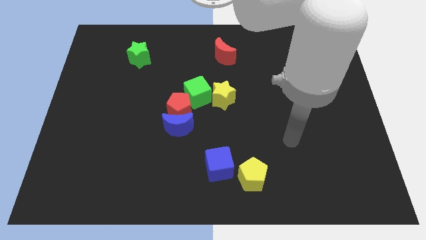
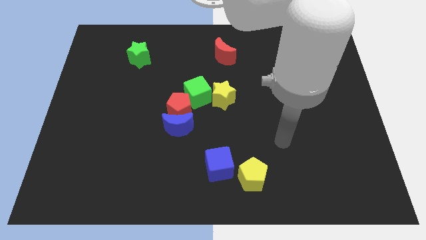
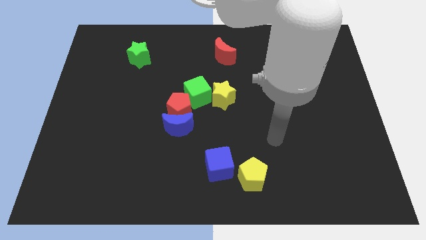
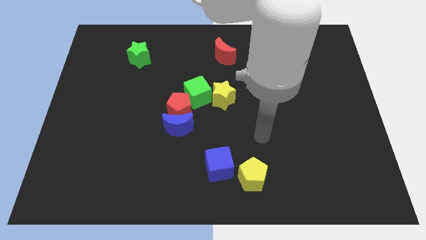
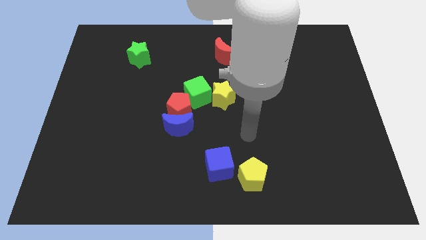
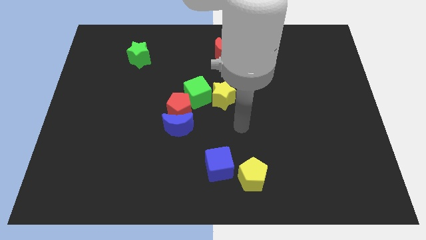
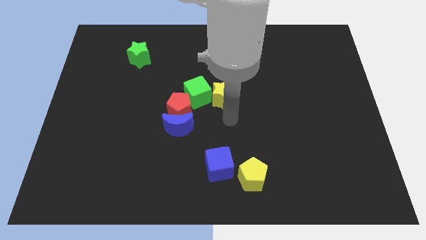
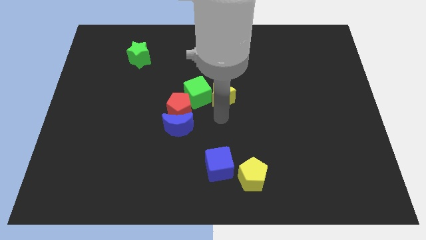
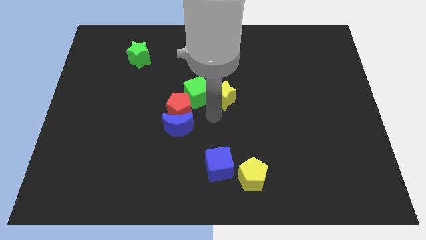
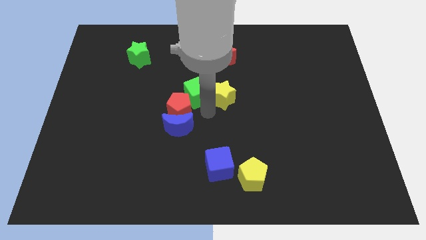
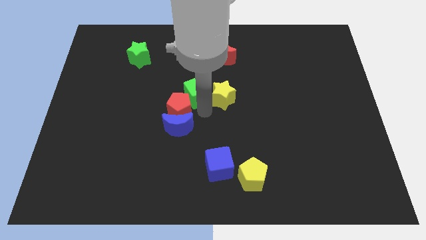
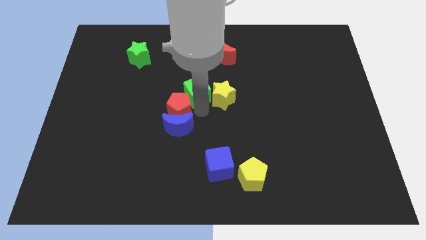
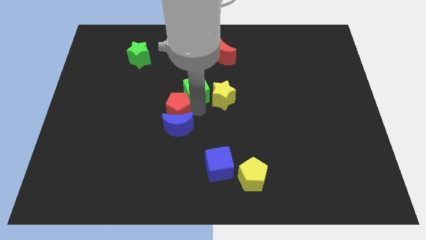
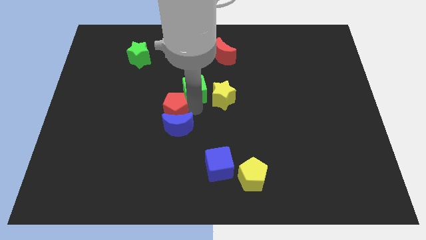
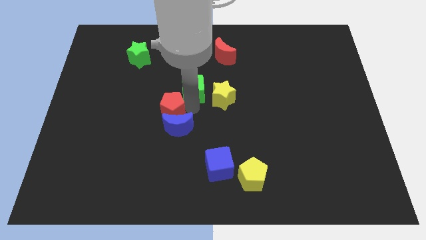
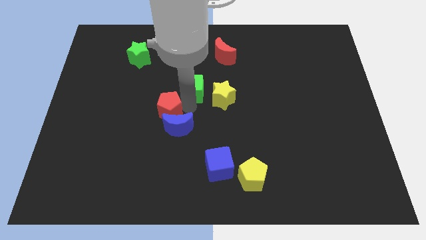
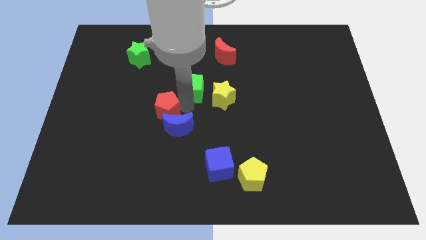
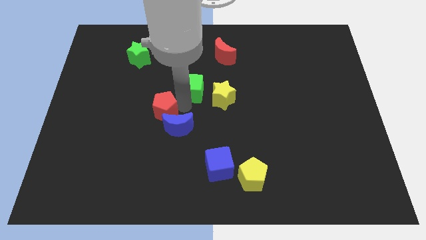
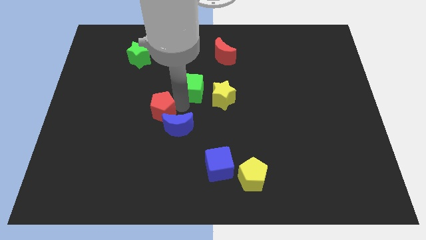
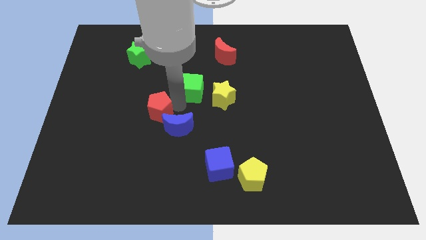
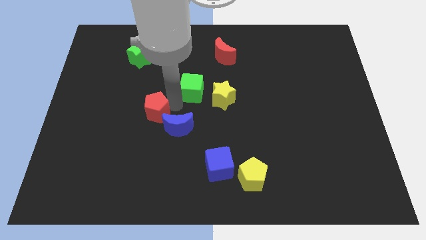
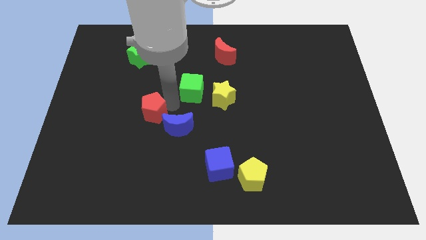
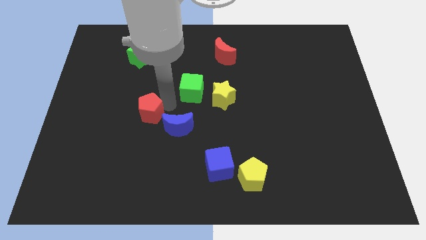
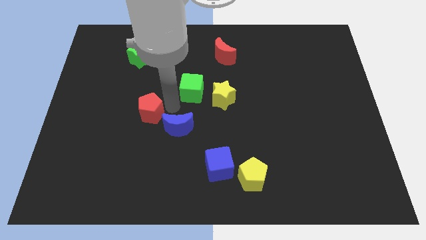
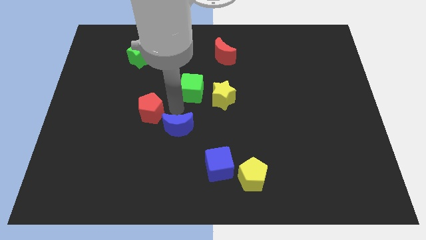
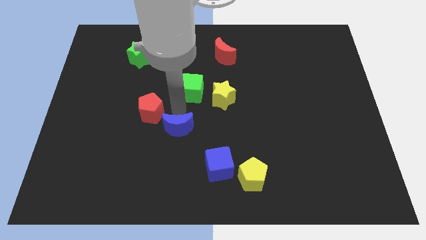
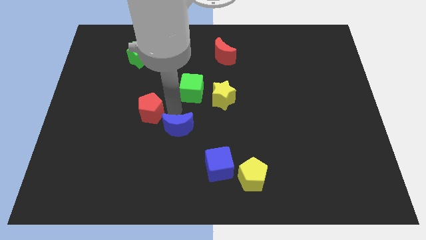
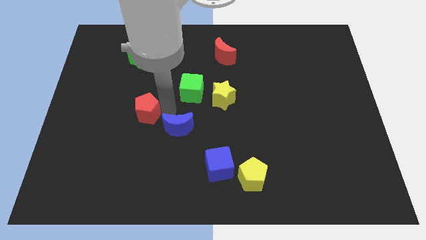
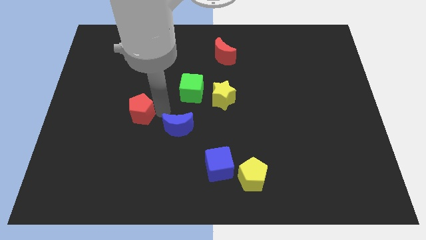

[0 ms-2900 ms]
pull the red pentagon apart from the blue moon and green cube

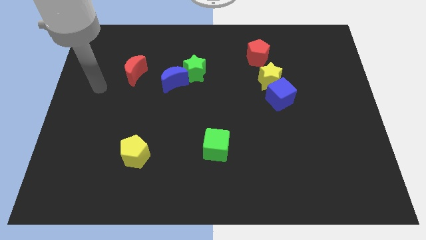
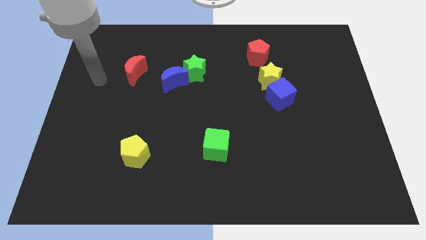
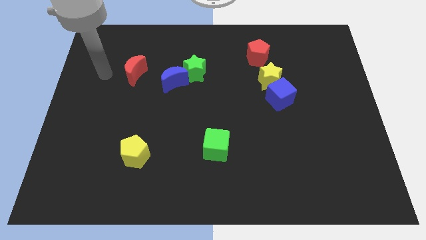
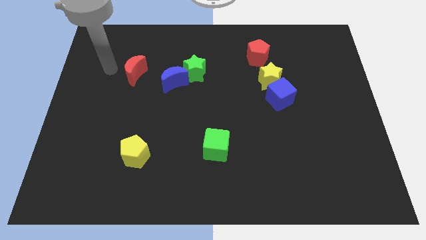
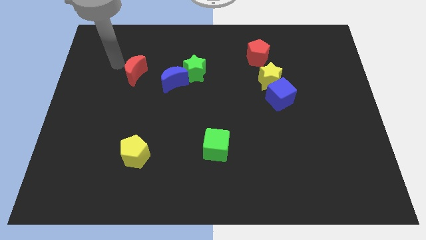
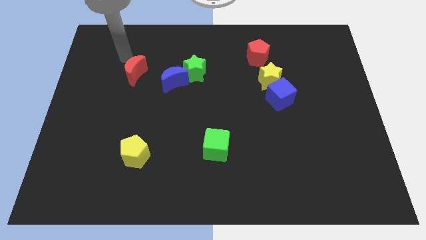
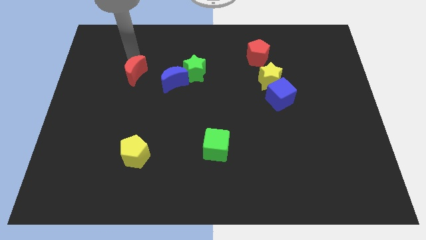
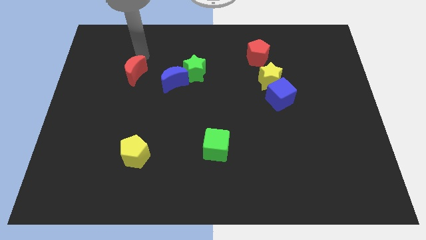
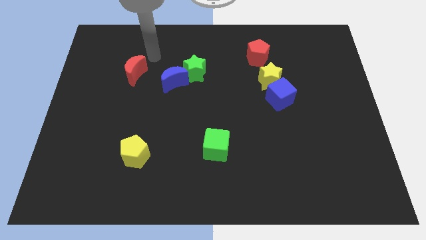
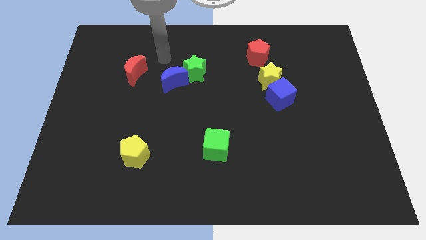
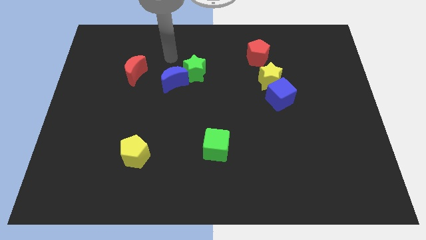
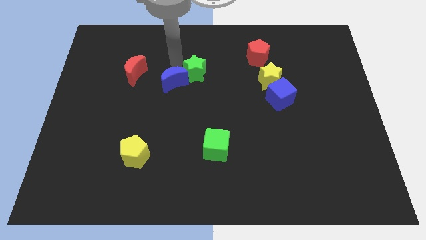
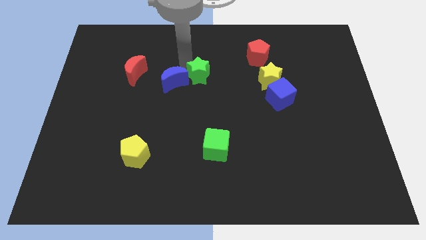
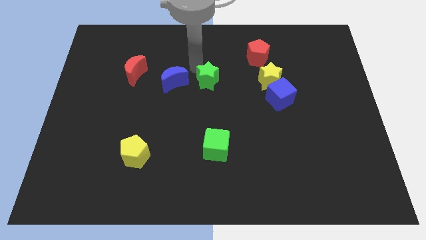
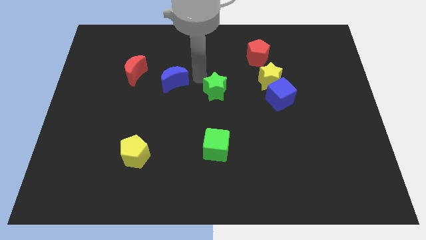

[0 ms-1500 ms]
separate the blue moon from the green star

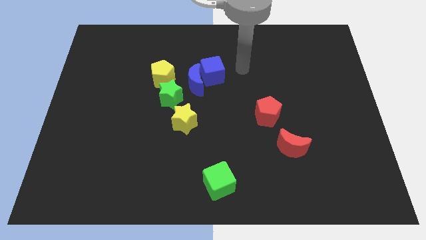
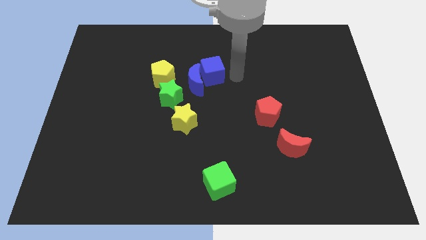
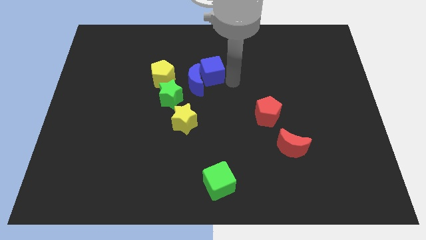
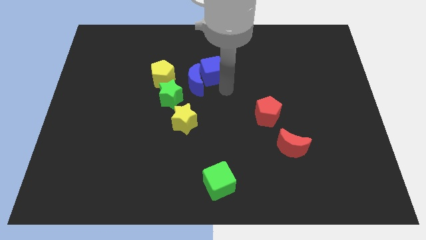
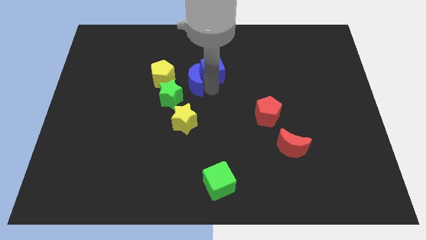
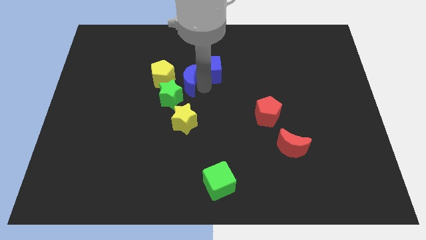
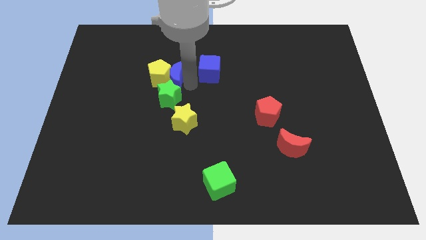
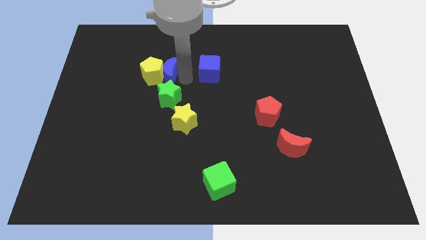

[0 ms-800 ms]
separate the blue cube from the blue moon

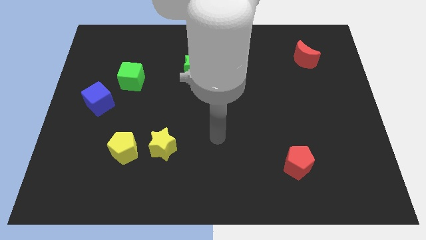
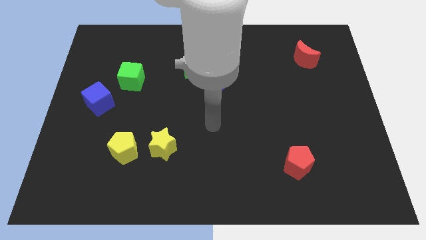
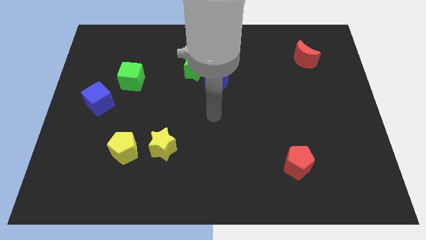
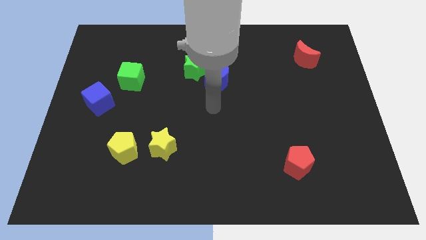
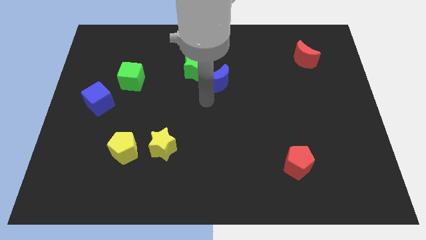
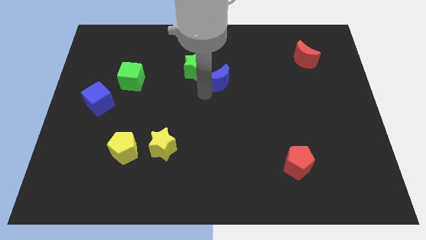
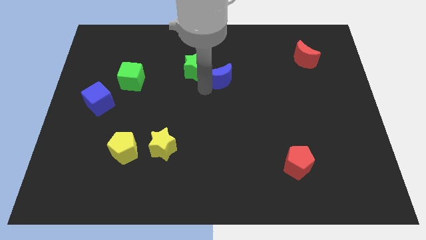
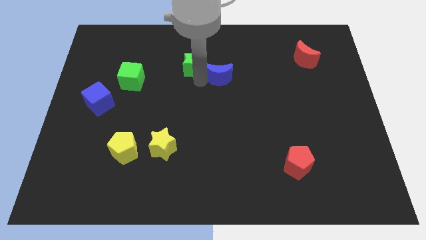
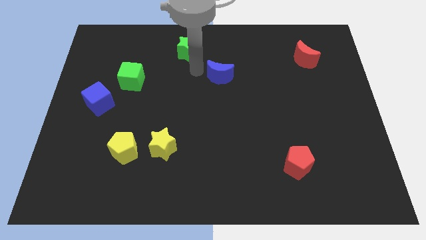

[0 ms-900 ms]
pull the blue moon apart from the green star

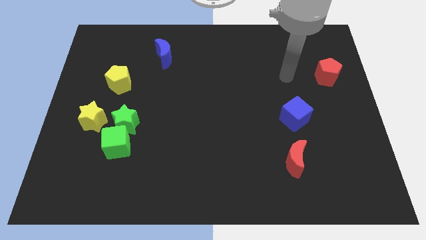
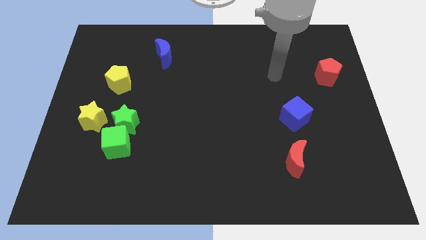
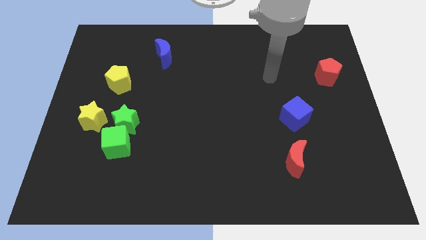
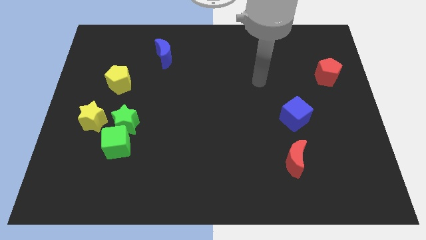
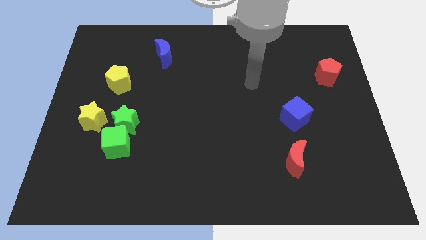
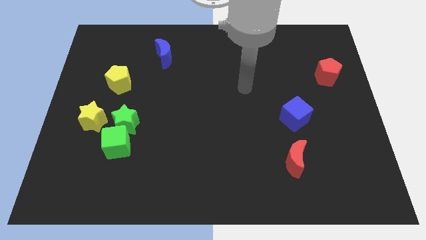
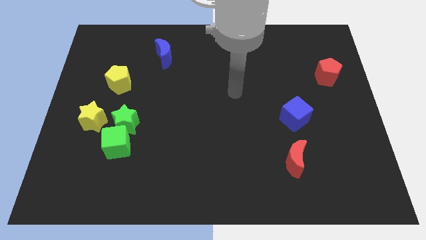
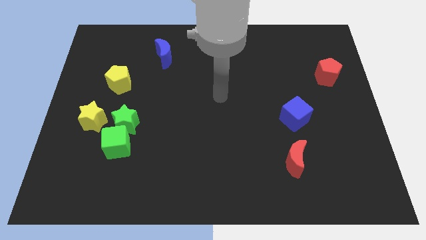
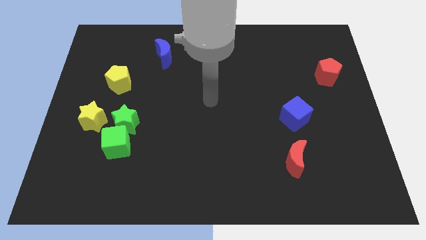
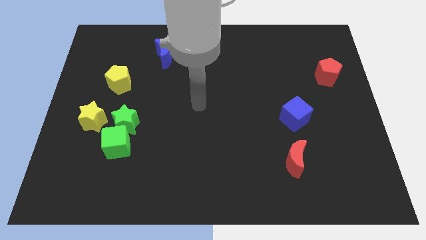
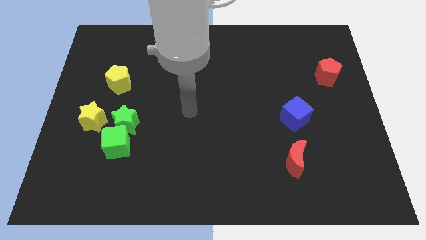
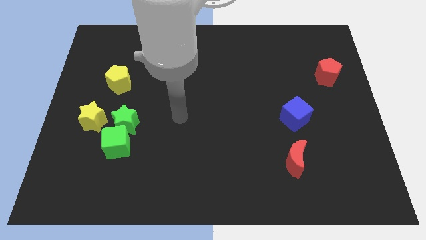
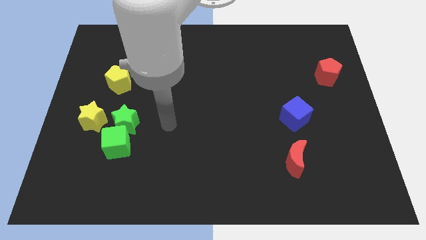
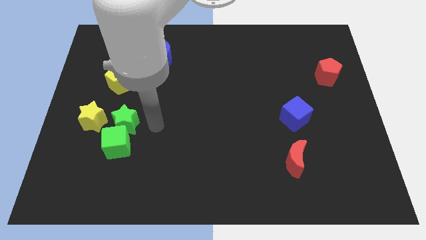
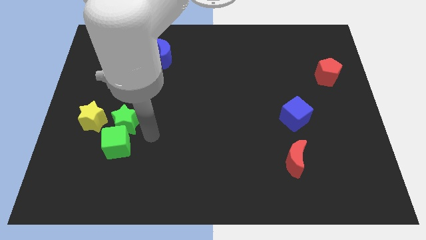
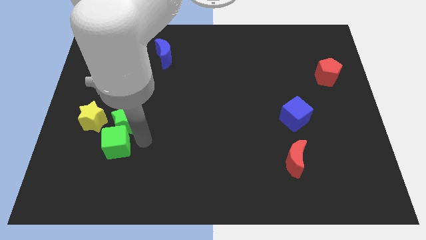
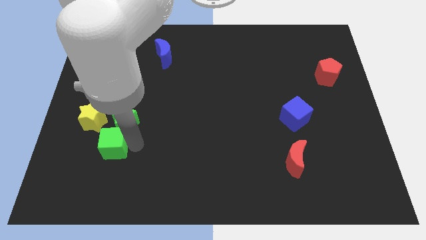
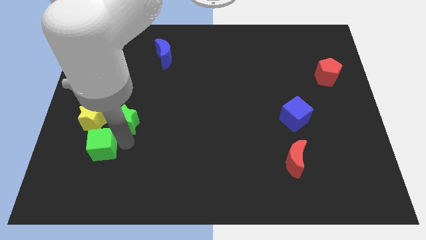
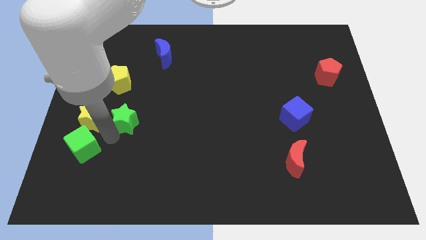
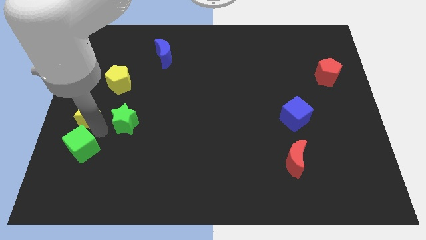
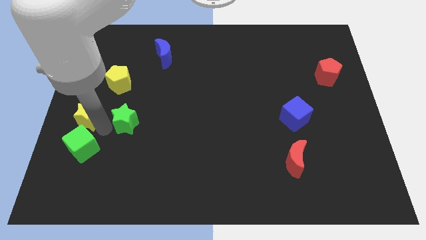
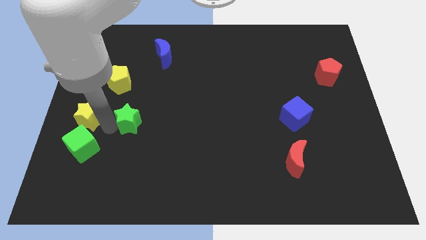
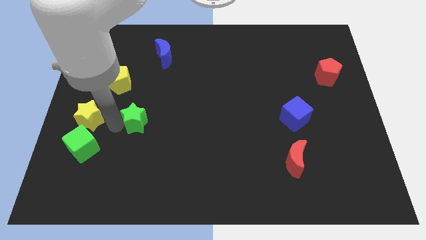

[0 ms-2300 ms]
move the green star away from the green cube and yellow star

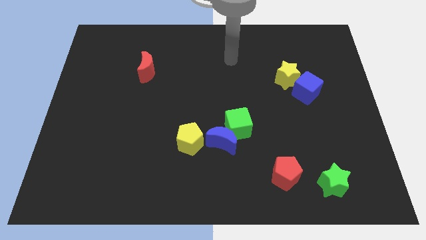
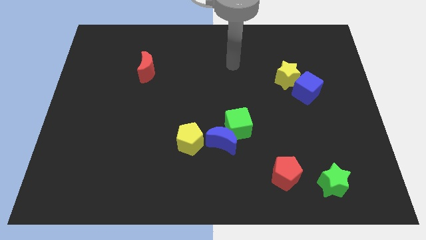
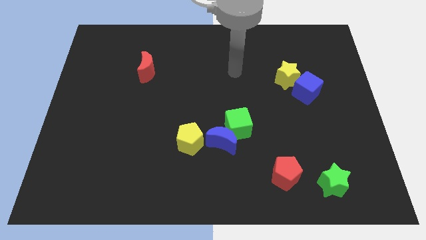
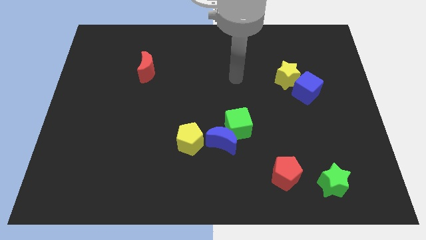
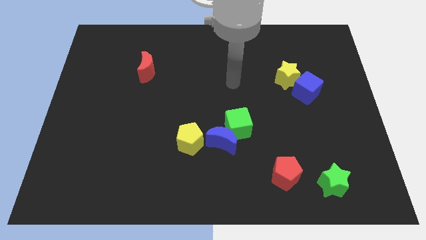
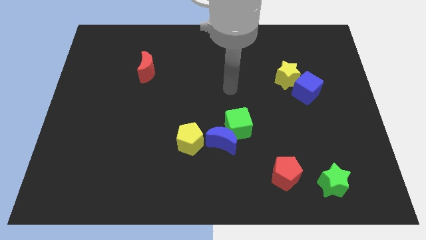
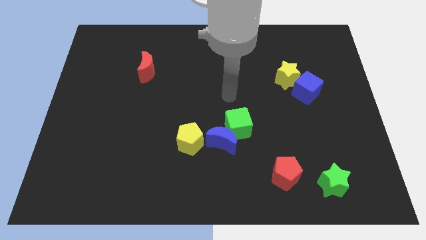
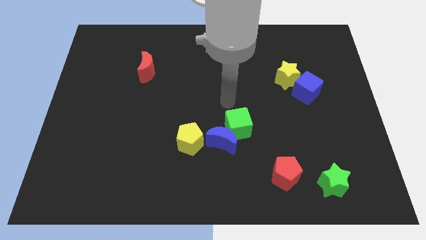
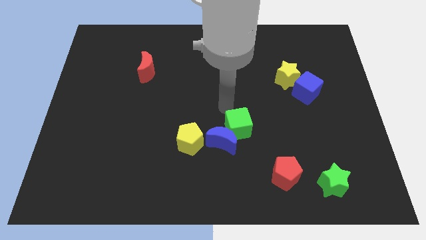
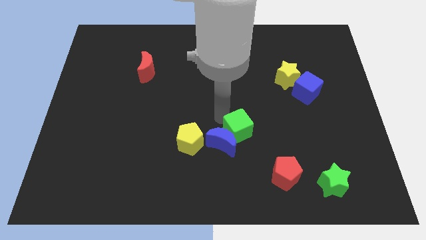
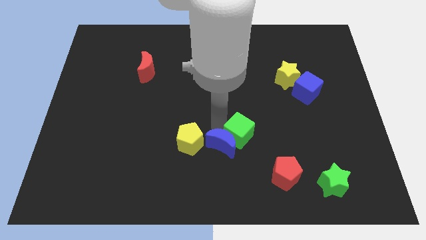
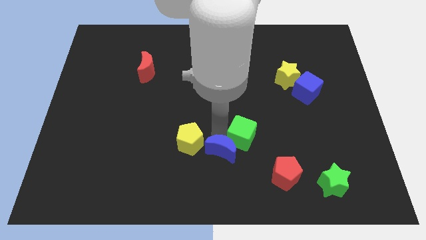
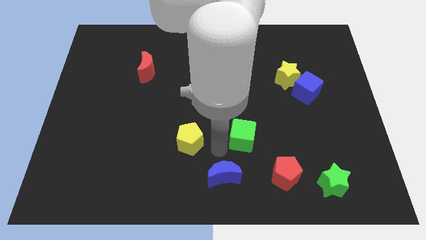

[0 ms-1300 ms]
pull the green cube apart from the blue moon
